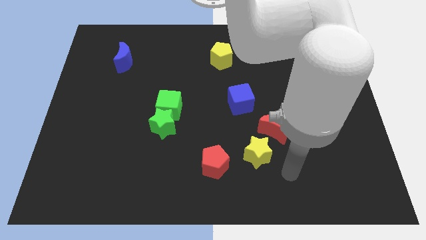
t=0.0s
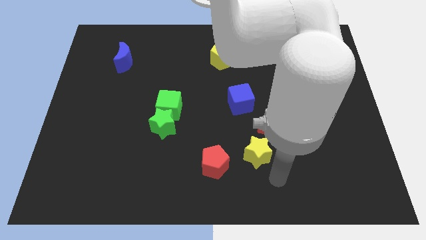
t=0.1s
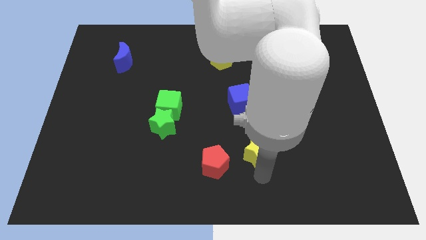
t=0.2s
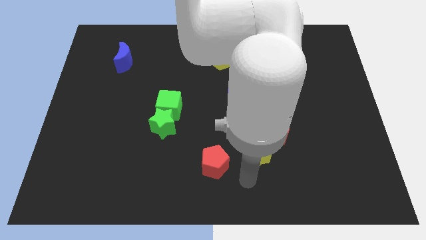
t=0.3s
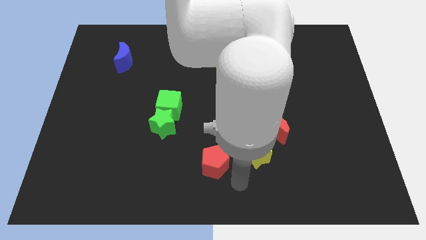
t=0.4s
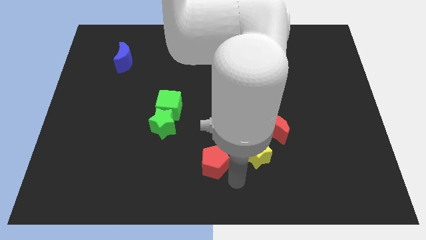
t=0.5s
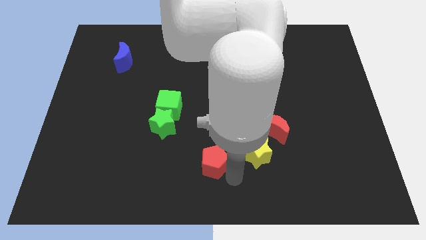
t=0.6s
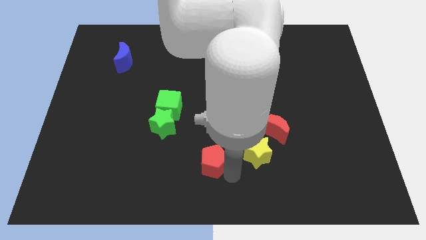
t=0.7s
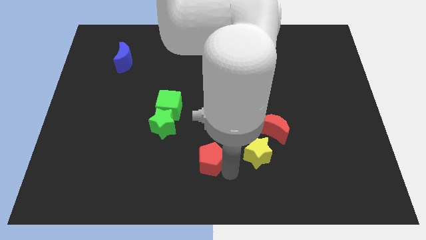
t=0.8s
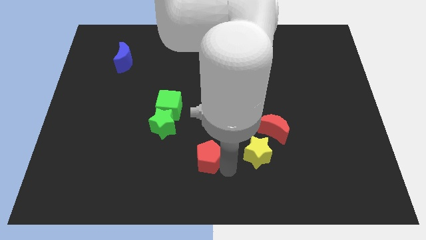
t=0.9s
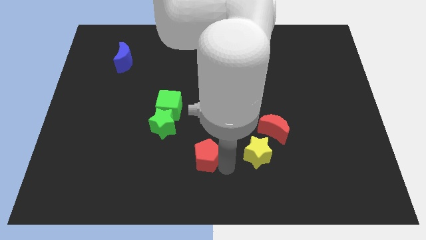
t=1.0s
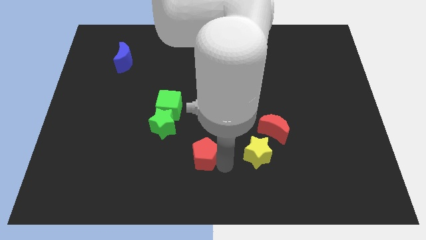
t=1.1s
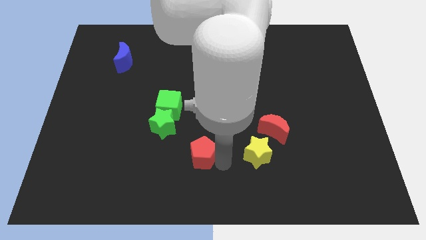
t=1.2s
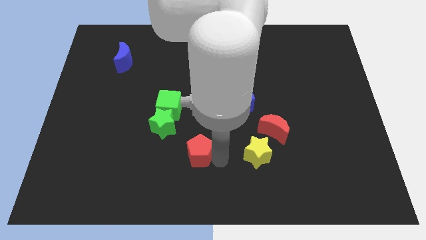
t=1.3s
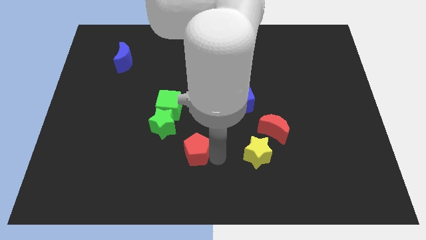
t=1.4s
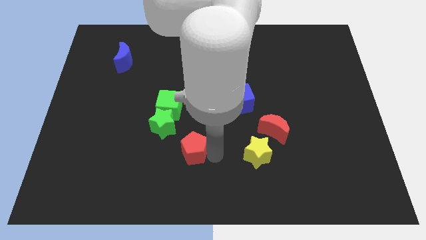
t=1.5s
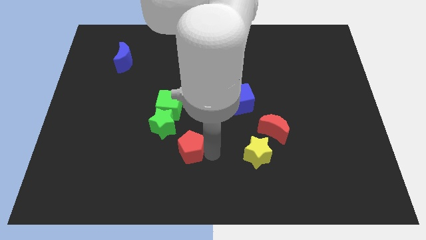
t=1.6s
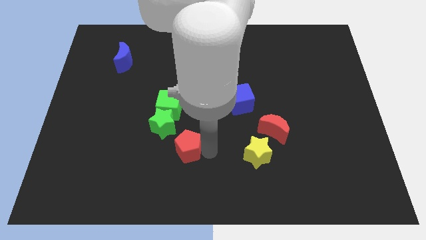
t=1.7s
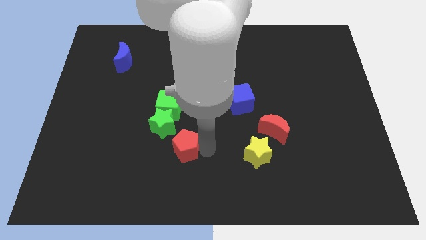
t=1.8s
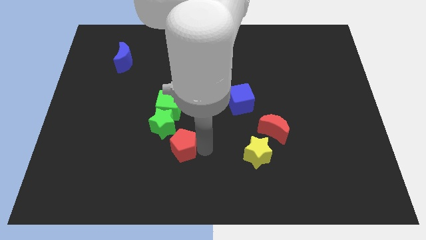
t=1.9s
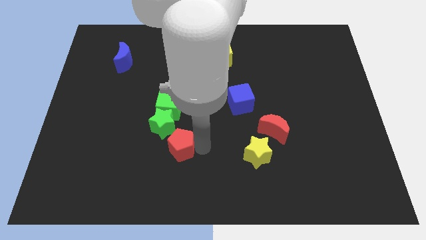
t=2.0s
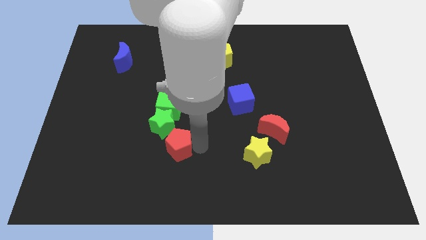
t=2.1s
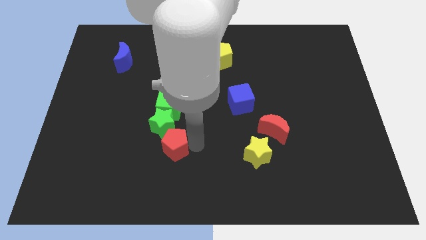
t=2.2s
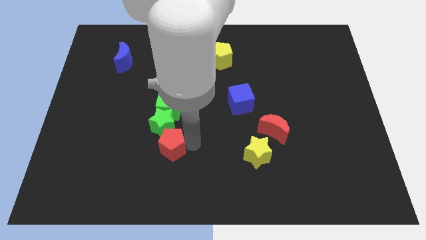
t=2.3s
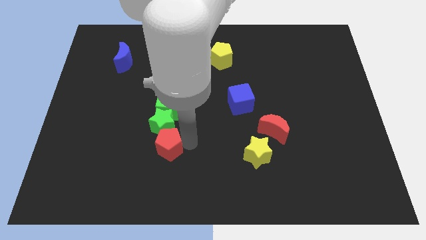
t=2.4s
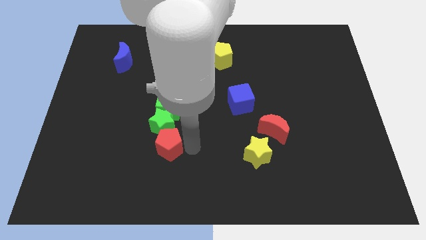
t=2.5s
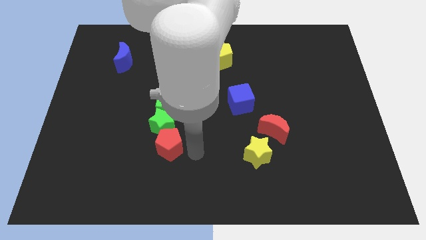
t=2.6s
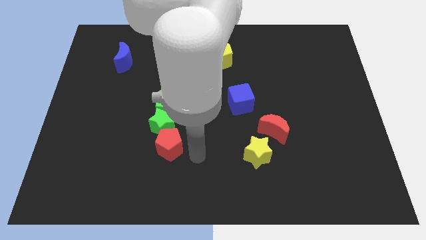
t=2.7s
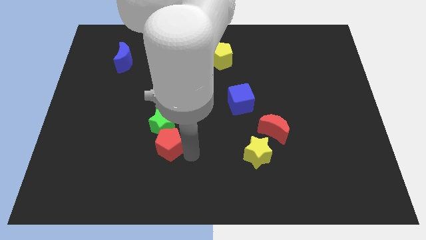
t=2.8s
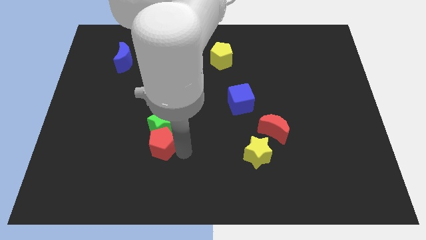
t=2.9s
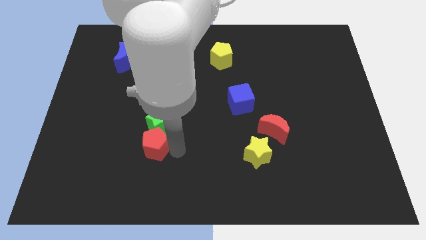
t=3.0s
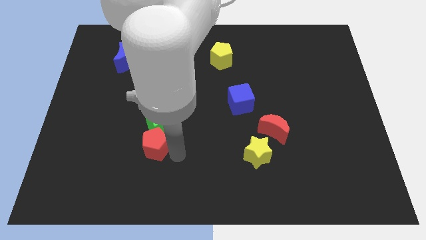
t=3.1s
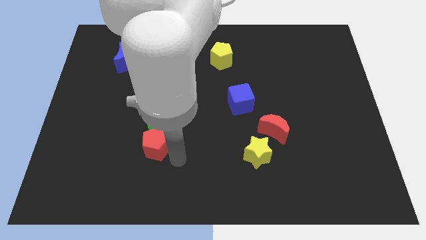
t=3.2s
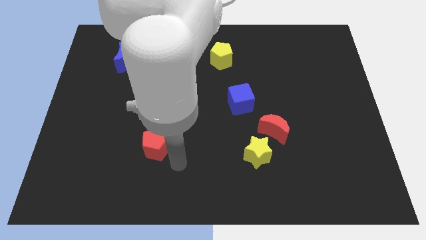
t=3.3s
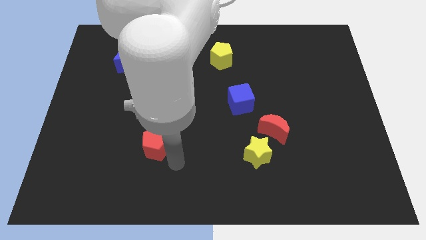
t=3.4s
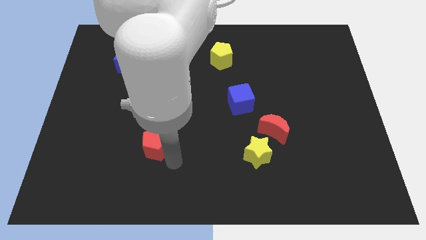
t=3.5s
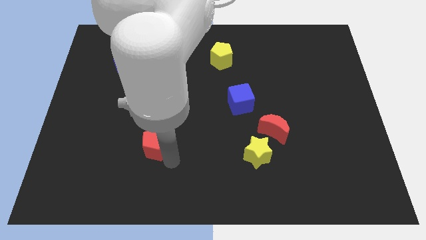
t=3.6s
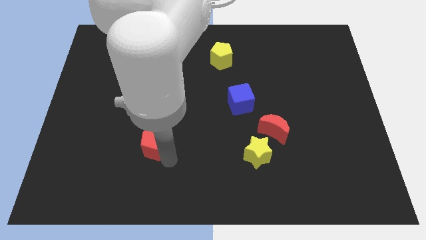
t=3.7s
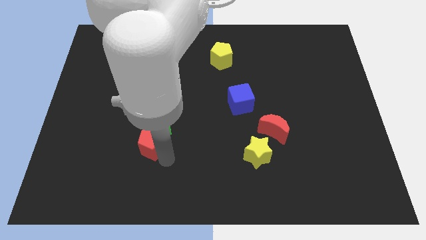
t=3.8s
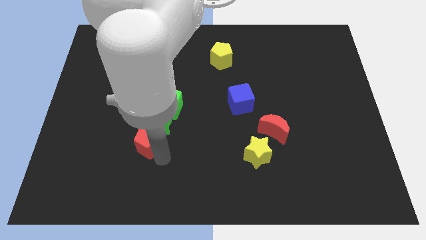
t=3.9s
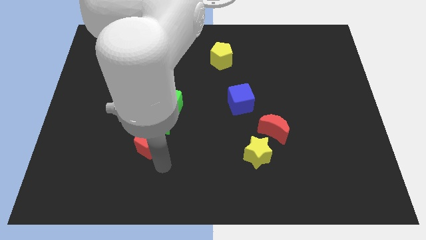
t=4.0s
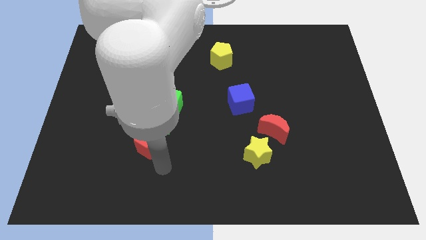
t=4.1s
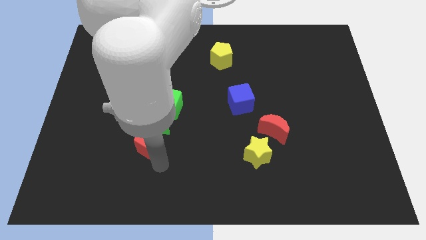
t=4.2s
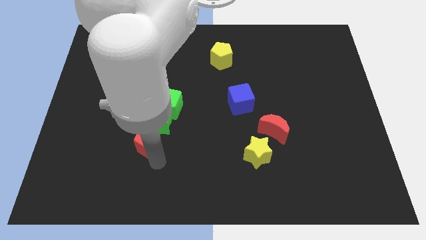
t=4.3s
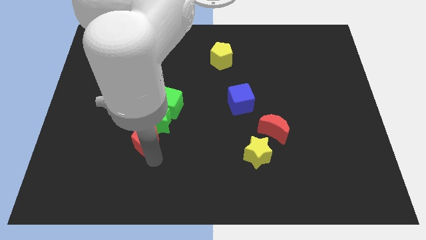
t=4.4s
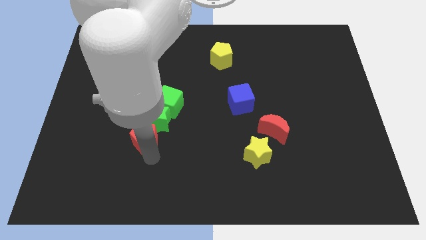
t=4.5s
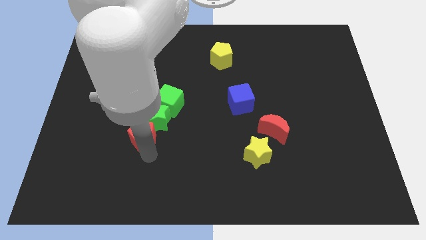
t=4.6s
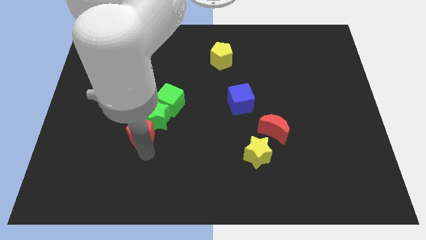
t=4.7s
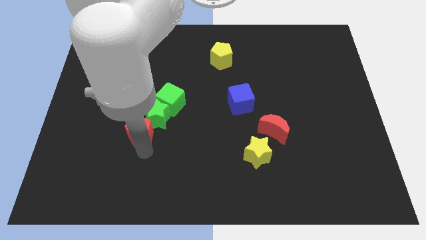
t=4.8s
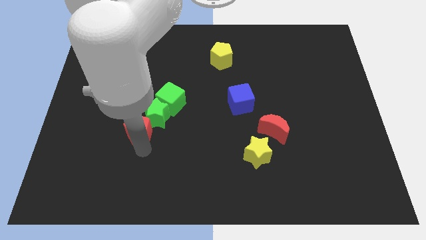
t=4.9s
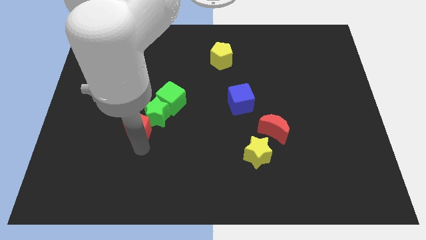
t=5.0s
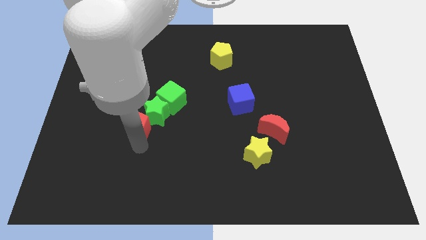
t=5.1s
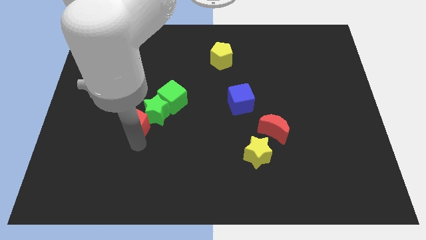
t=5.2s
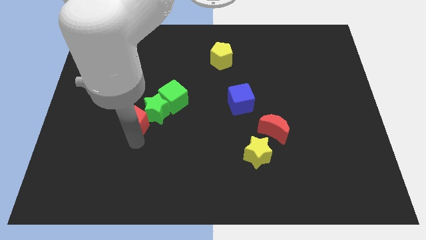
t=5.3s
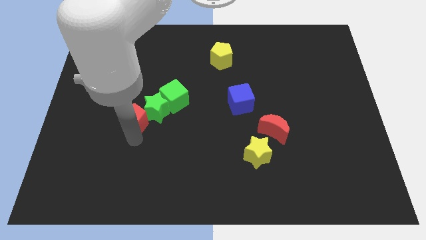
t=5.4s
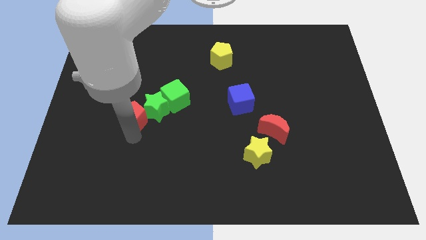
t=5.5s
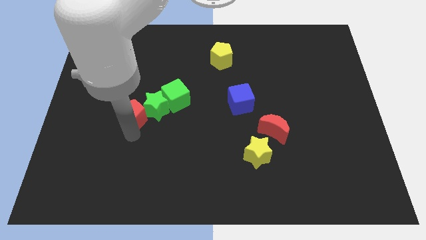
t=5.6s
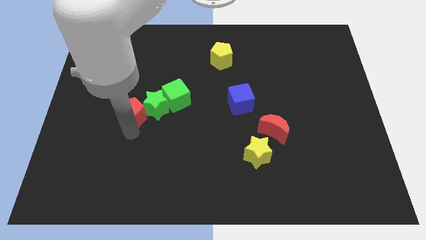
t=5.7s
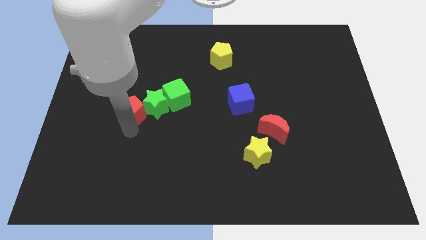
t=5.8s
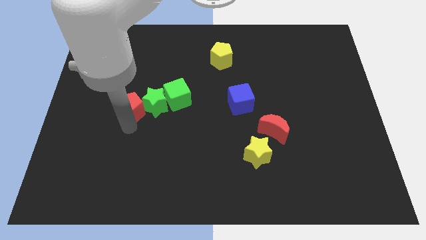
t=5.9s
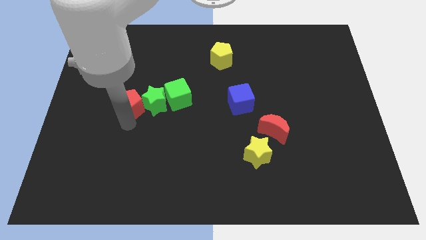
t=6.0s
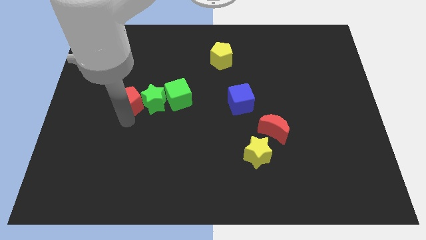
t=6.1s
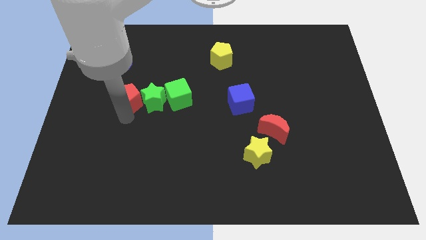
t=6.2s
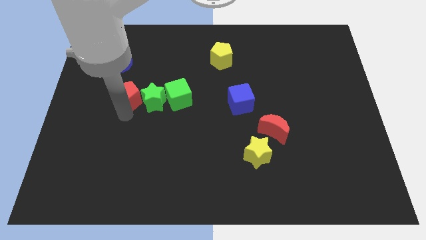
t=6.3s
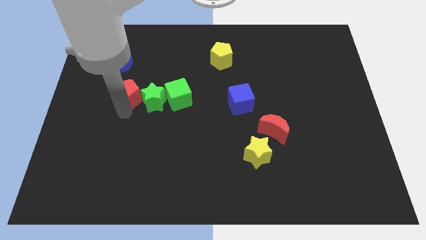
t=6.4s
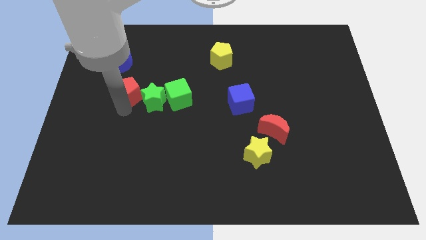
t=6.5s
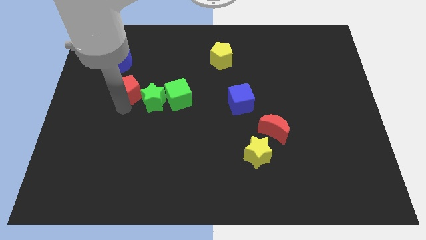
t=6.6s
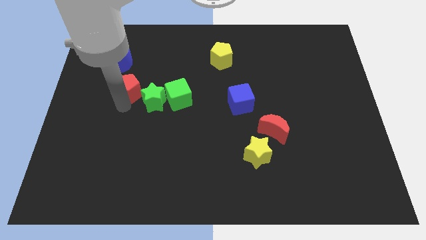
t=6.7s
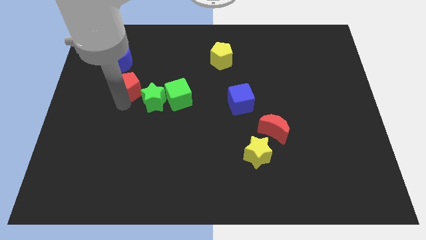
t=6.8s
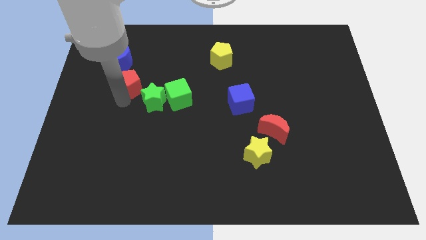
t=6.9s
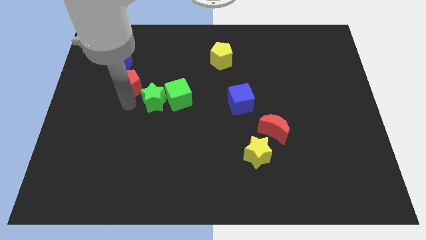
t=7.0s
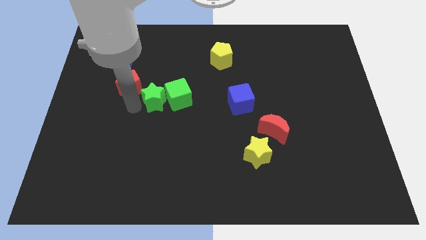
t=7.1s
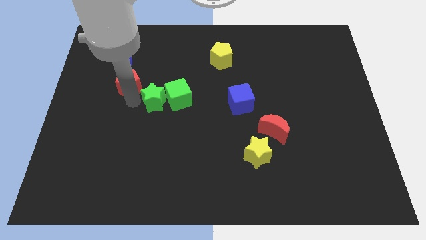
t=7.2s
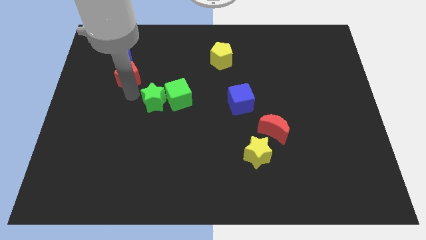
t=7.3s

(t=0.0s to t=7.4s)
push the red pentagon to the blue moon
